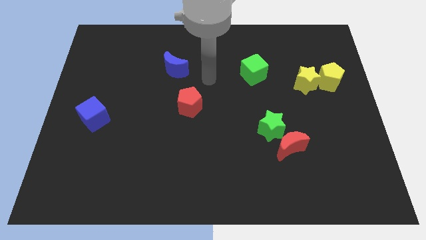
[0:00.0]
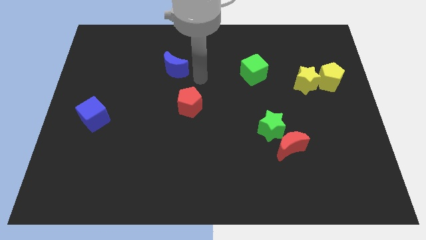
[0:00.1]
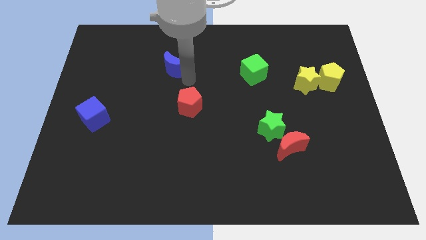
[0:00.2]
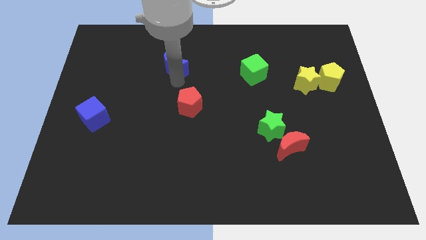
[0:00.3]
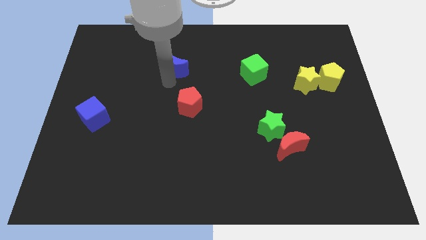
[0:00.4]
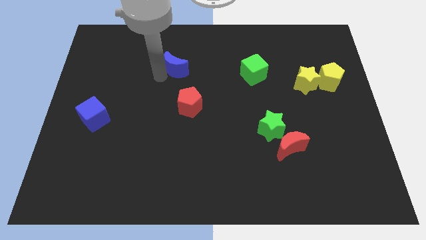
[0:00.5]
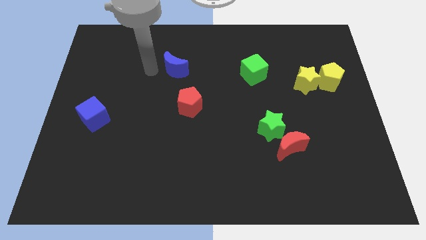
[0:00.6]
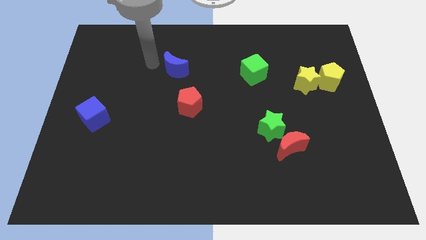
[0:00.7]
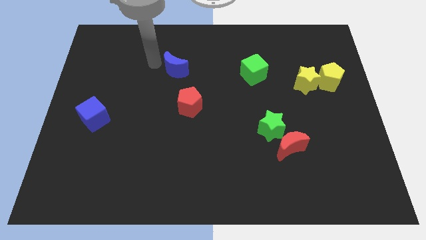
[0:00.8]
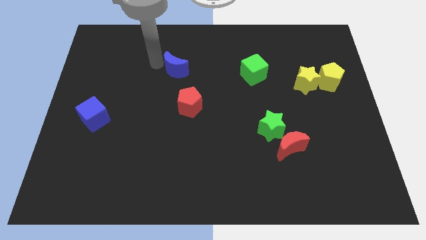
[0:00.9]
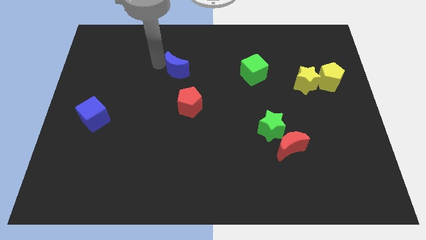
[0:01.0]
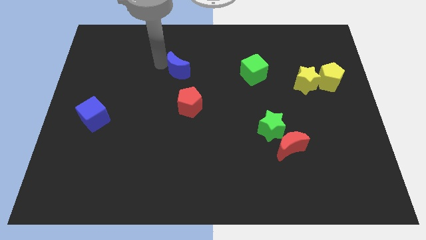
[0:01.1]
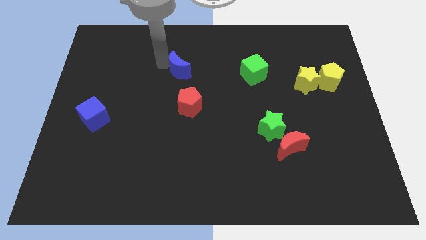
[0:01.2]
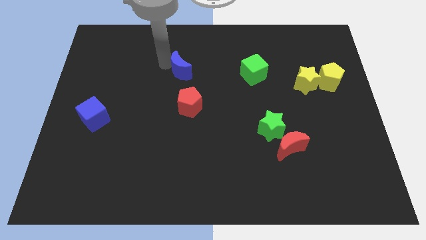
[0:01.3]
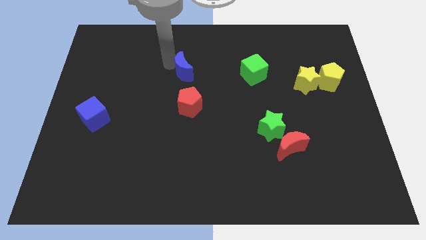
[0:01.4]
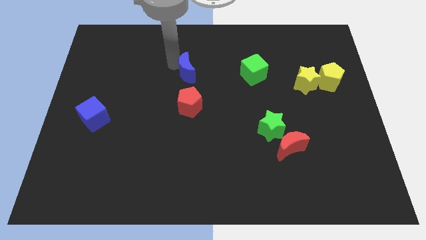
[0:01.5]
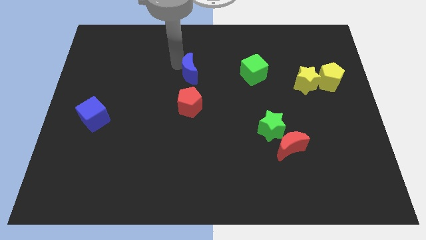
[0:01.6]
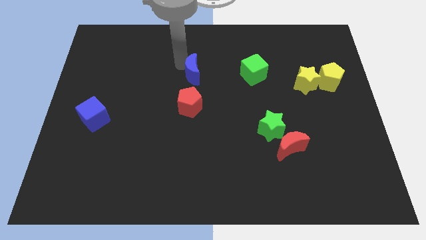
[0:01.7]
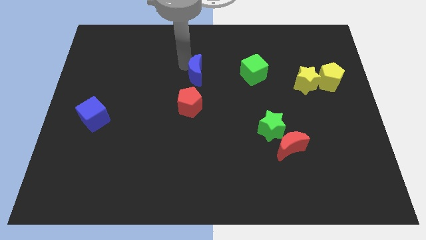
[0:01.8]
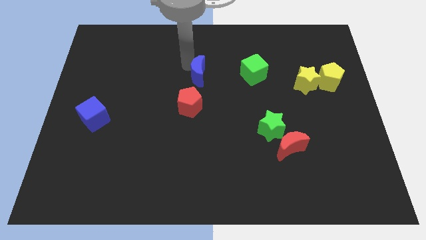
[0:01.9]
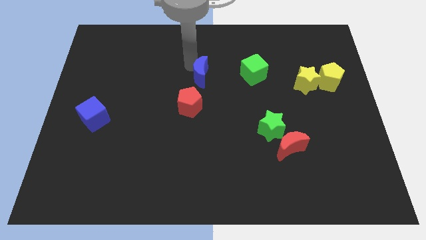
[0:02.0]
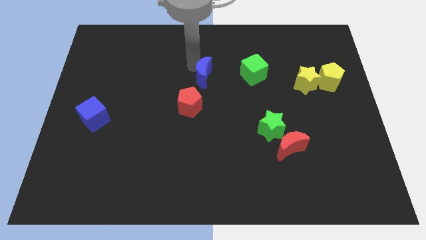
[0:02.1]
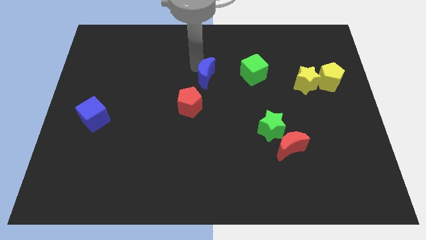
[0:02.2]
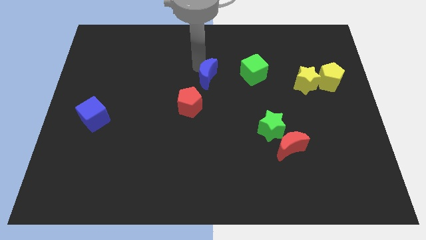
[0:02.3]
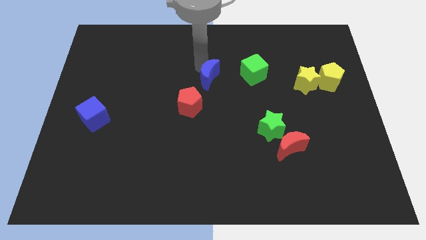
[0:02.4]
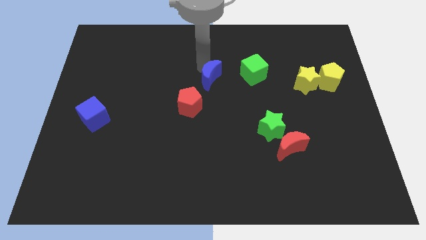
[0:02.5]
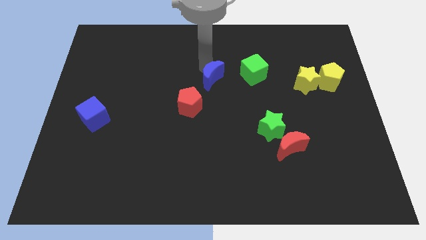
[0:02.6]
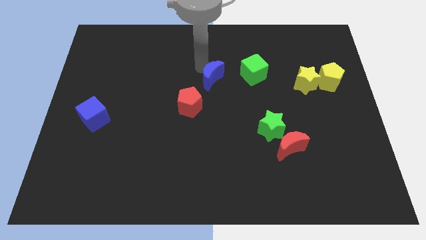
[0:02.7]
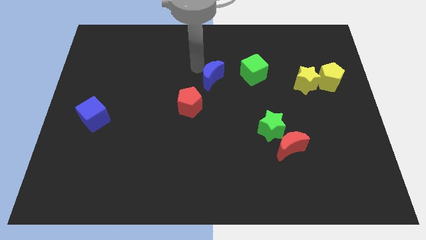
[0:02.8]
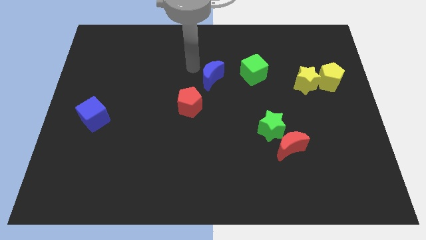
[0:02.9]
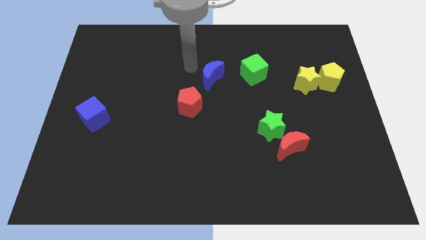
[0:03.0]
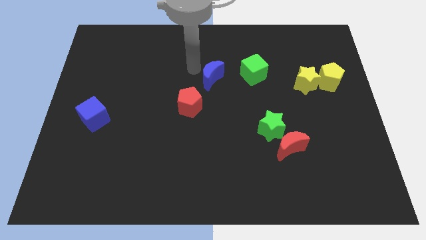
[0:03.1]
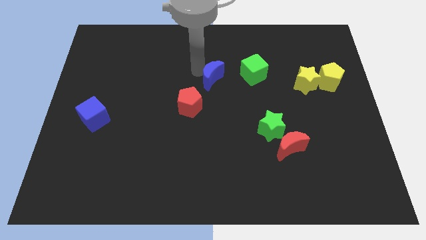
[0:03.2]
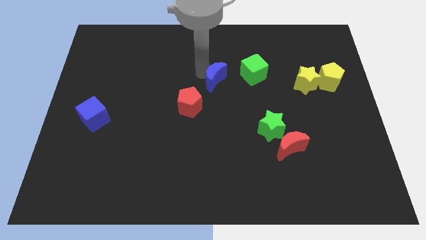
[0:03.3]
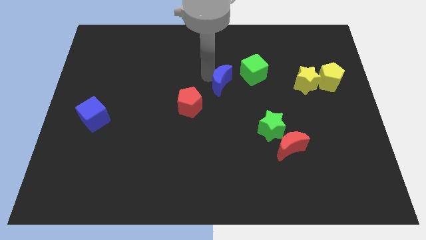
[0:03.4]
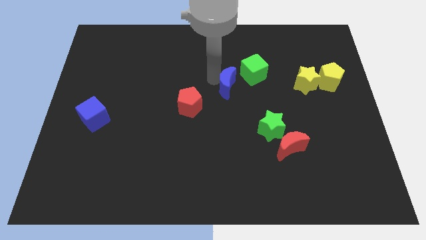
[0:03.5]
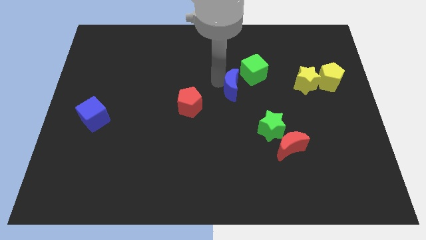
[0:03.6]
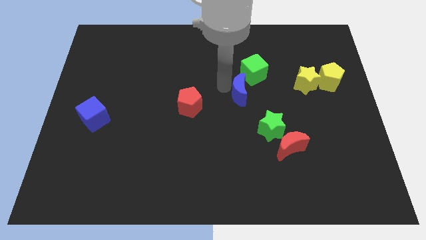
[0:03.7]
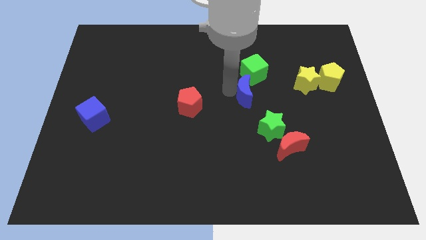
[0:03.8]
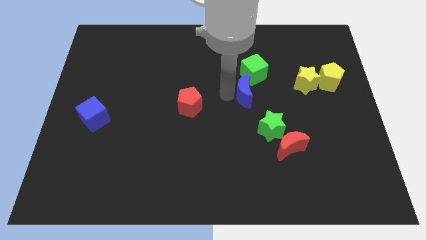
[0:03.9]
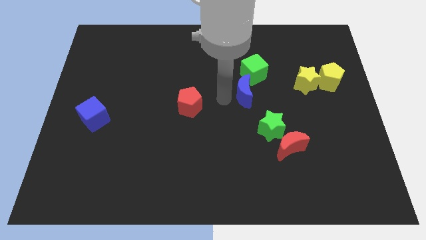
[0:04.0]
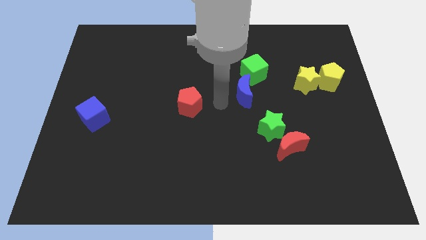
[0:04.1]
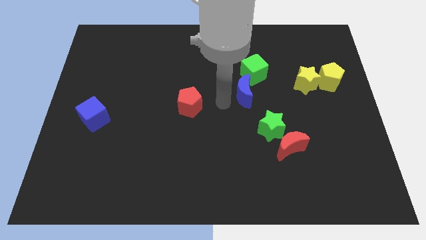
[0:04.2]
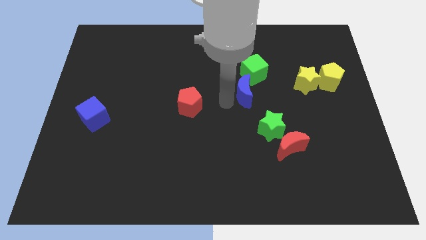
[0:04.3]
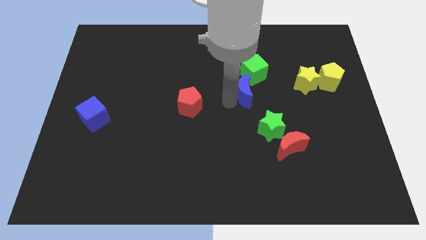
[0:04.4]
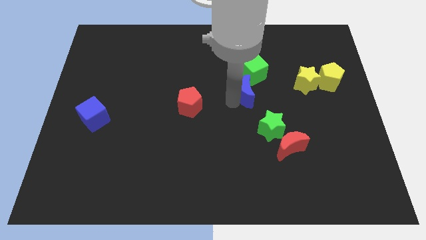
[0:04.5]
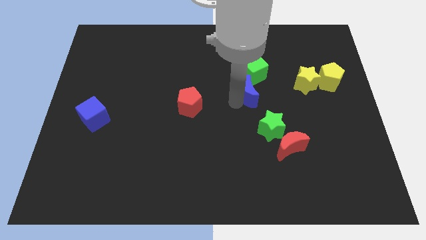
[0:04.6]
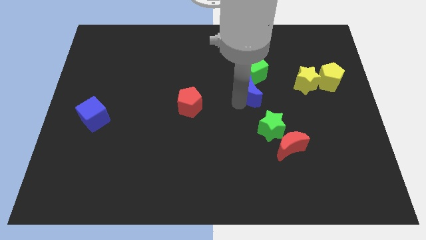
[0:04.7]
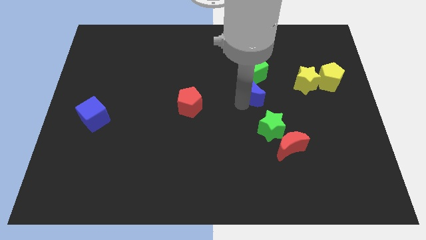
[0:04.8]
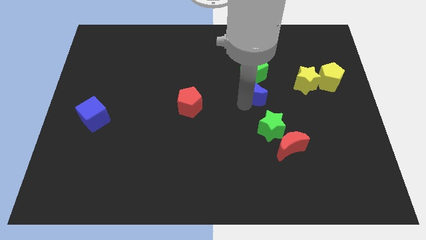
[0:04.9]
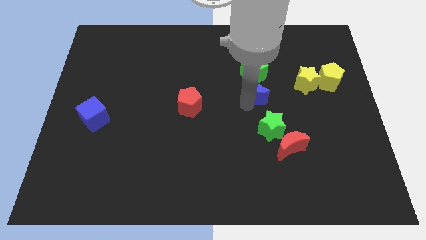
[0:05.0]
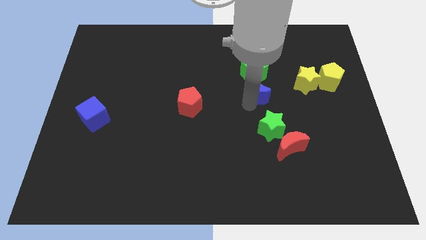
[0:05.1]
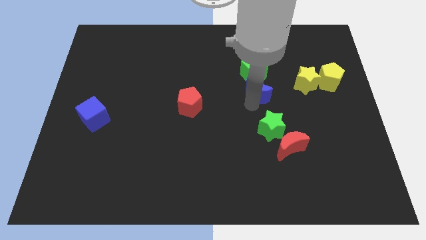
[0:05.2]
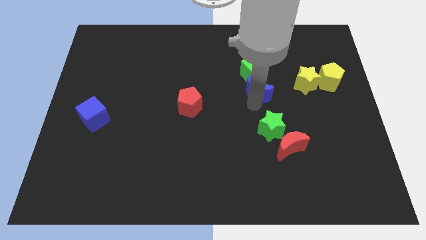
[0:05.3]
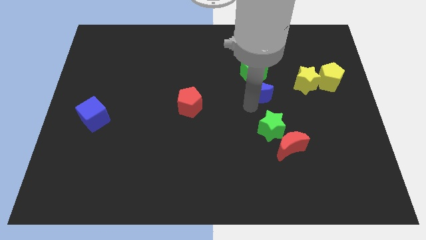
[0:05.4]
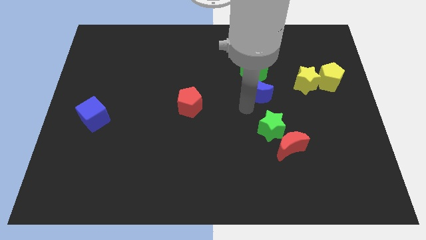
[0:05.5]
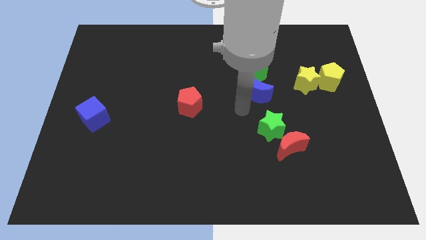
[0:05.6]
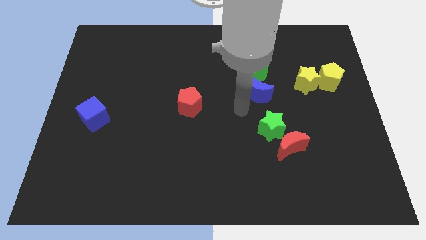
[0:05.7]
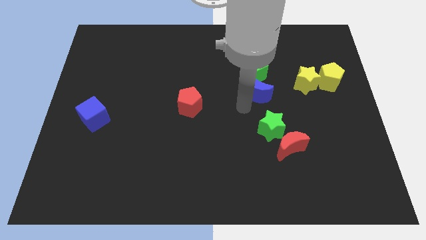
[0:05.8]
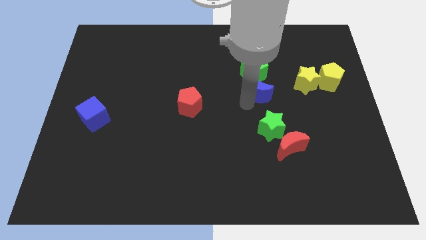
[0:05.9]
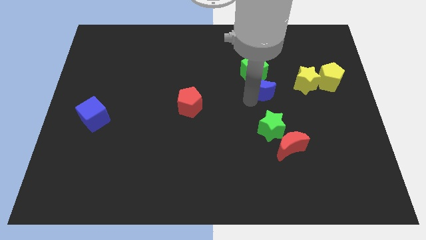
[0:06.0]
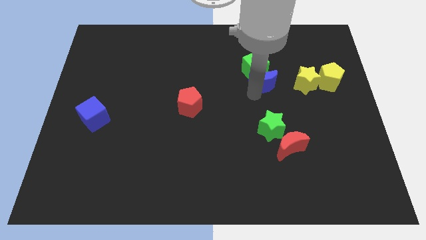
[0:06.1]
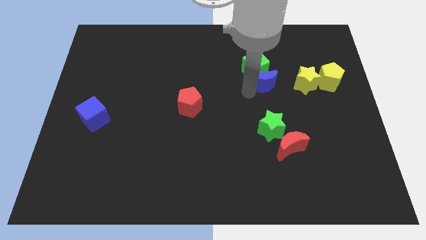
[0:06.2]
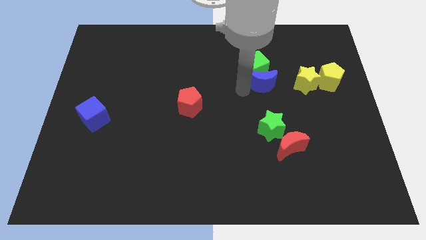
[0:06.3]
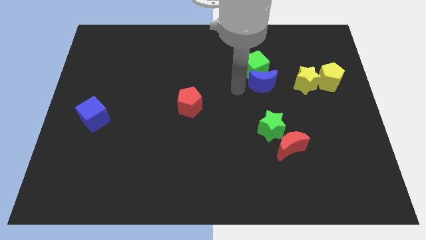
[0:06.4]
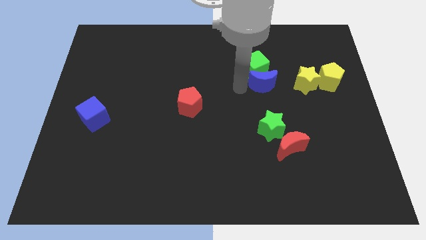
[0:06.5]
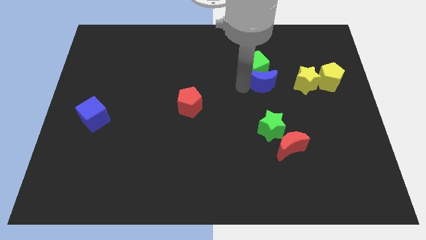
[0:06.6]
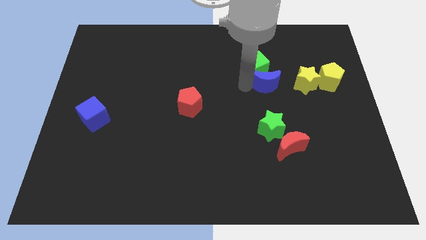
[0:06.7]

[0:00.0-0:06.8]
put the blue moon just left of the yellow pentagon
